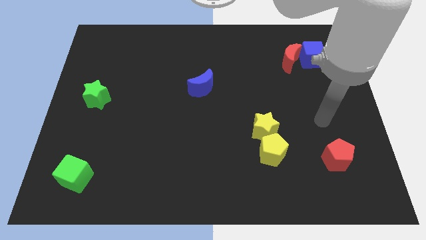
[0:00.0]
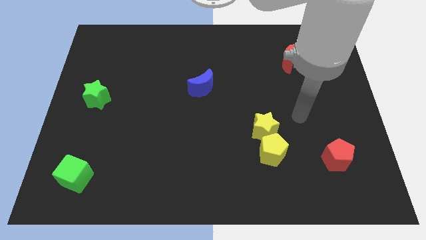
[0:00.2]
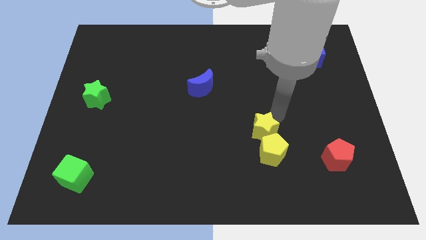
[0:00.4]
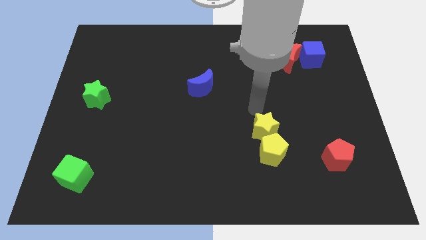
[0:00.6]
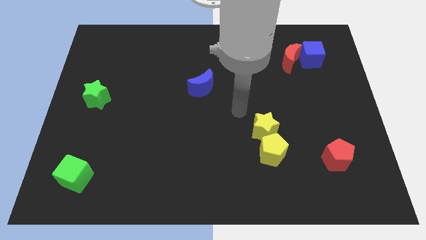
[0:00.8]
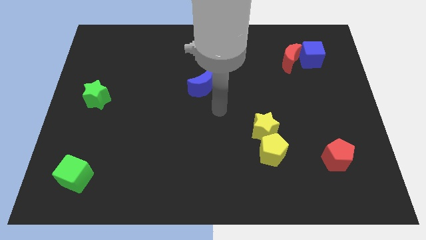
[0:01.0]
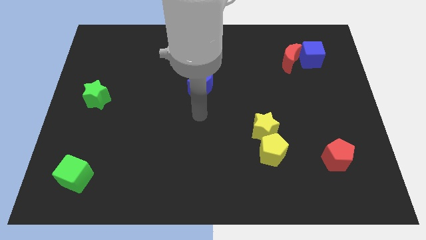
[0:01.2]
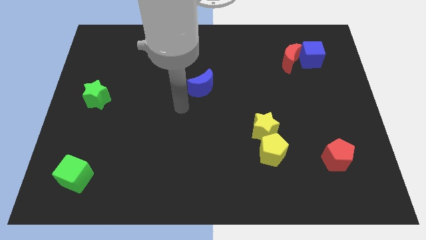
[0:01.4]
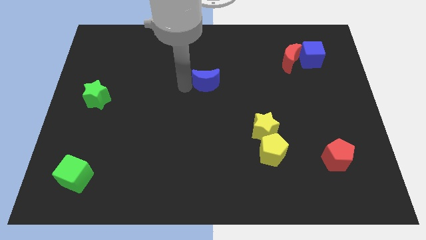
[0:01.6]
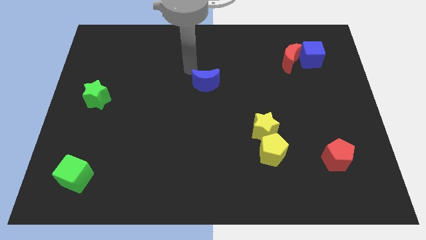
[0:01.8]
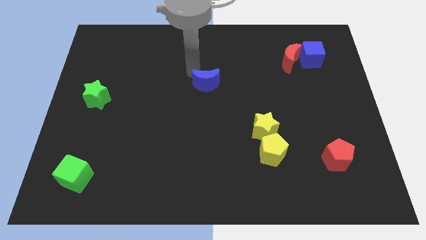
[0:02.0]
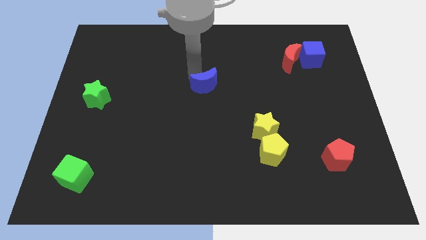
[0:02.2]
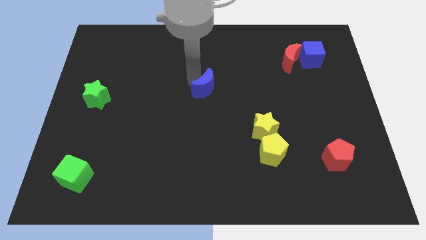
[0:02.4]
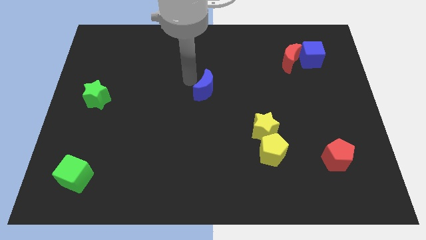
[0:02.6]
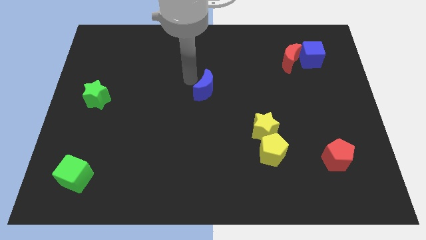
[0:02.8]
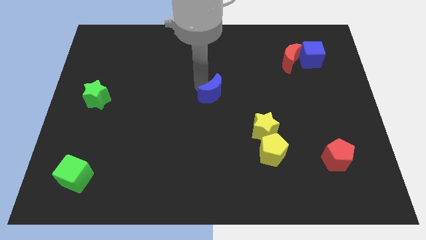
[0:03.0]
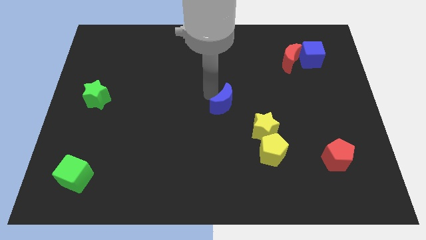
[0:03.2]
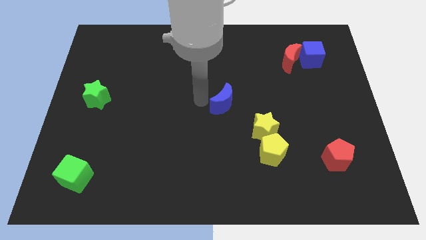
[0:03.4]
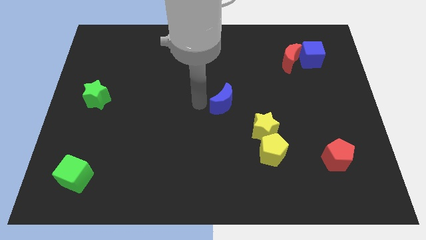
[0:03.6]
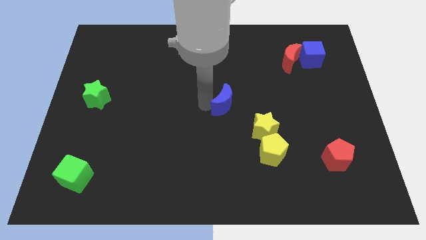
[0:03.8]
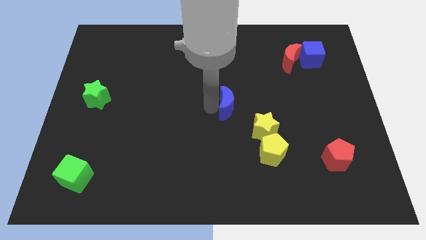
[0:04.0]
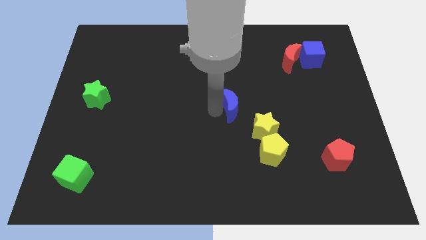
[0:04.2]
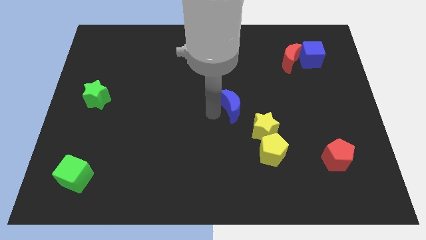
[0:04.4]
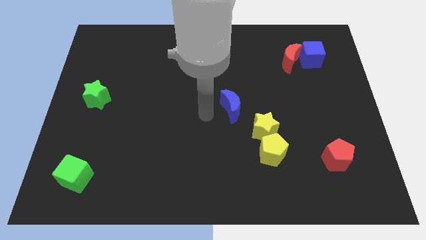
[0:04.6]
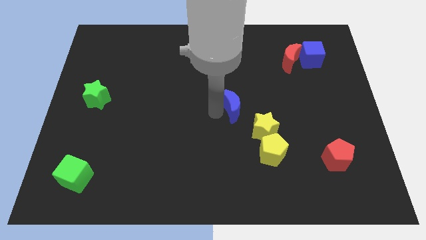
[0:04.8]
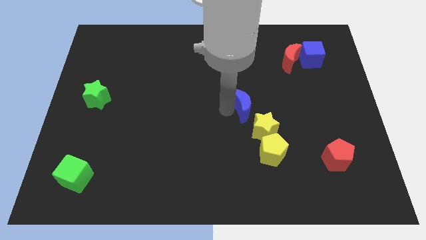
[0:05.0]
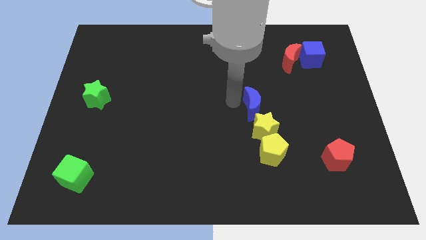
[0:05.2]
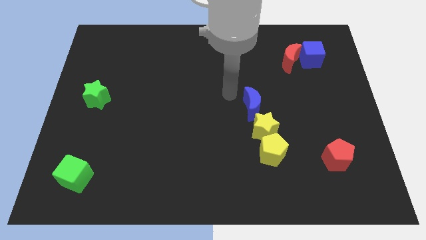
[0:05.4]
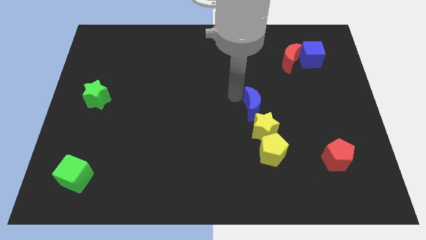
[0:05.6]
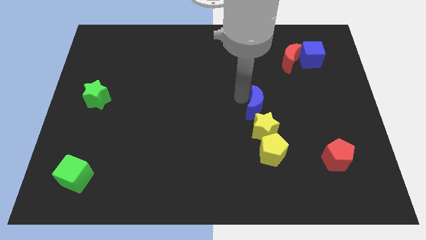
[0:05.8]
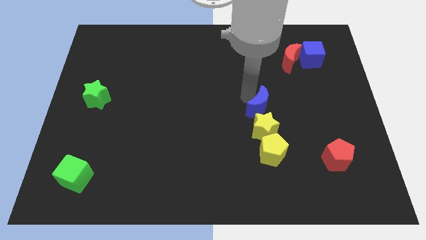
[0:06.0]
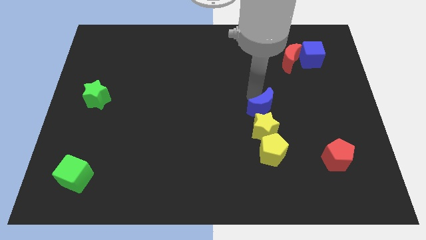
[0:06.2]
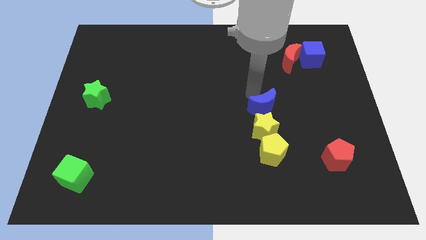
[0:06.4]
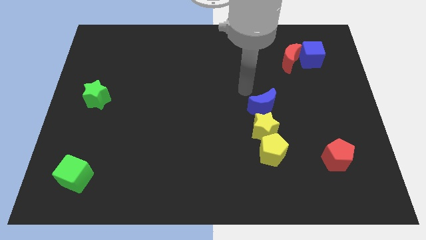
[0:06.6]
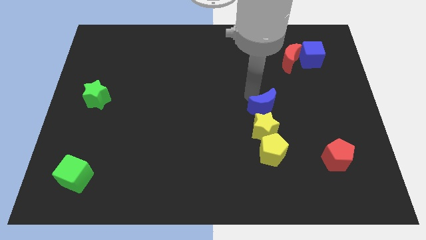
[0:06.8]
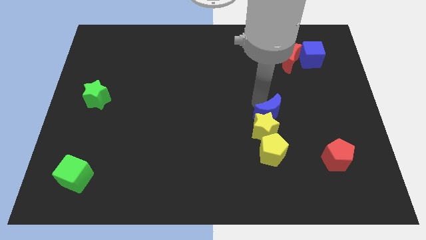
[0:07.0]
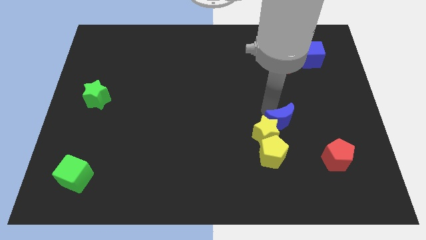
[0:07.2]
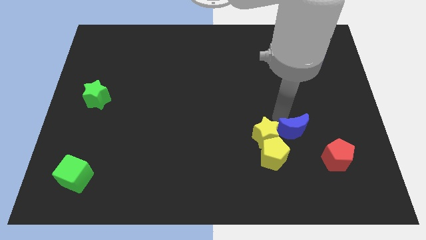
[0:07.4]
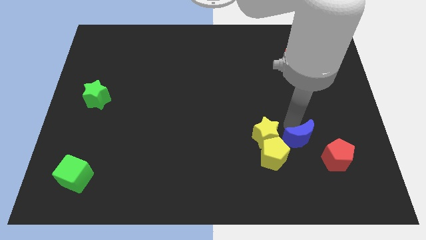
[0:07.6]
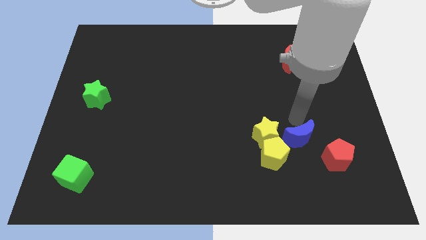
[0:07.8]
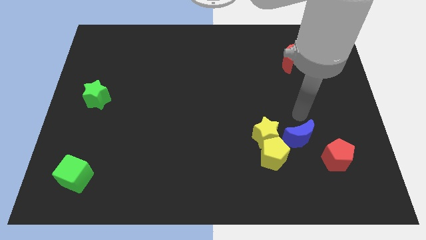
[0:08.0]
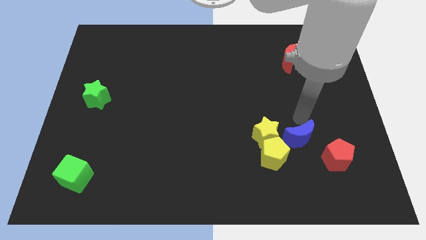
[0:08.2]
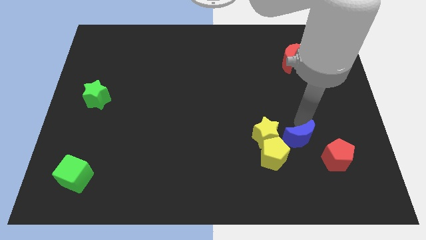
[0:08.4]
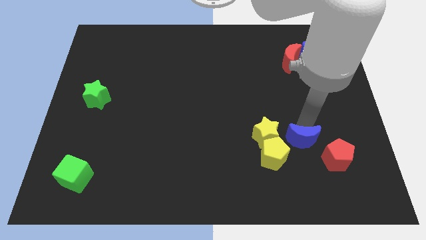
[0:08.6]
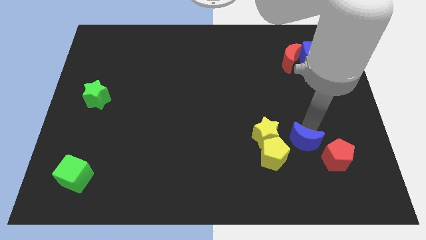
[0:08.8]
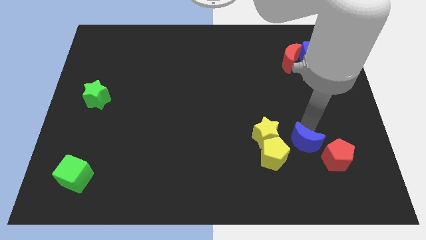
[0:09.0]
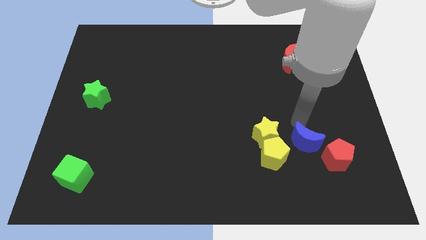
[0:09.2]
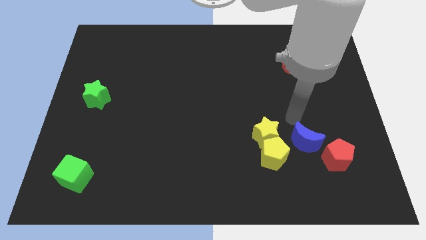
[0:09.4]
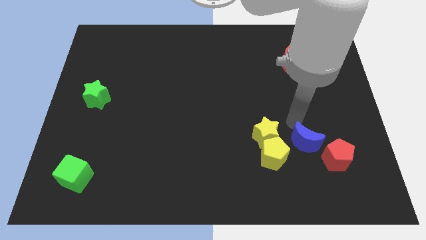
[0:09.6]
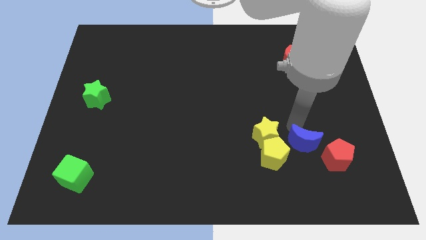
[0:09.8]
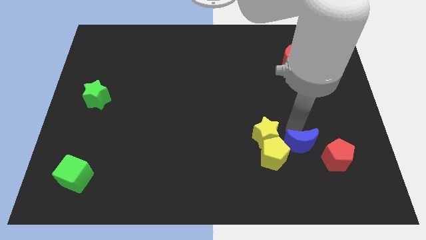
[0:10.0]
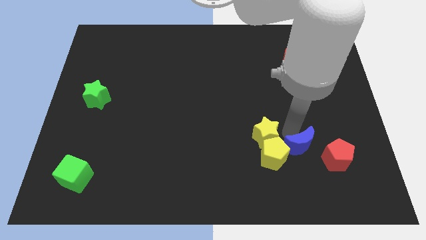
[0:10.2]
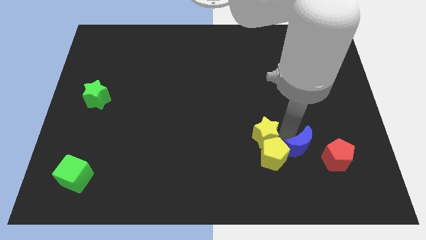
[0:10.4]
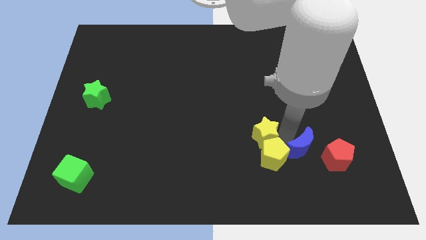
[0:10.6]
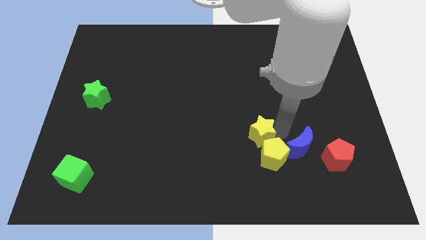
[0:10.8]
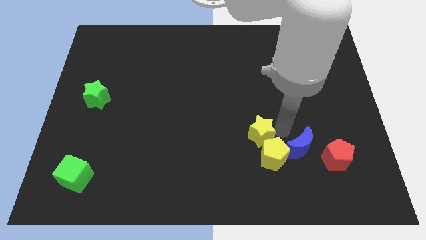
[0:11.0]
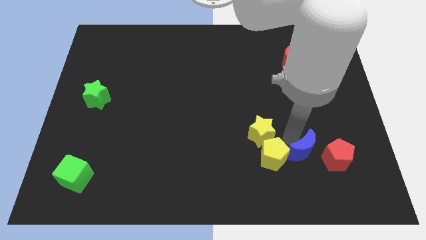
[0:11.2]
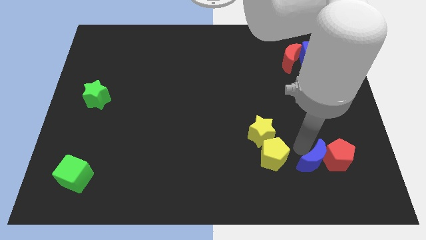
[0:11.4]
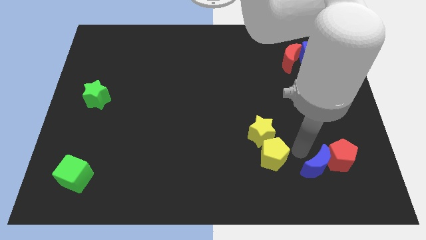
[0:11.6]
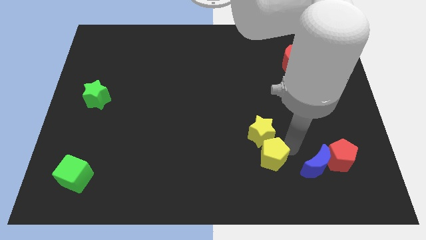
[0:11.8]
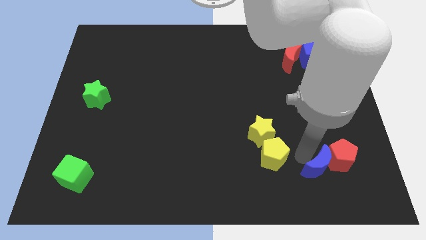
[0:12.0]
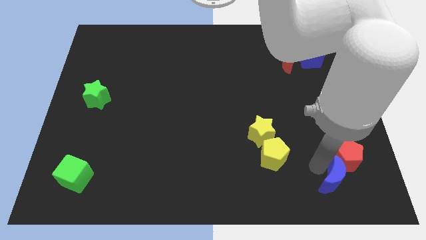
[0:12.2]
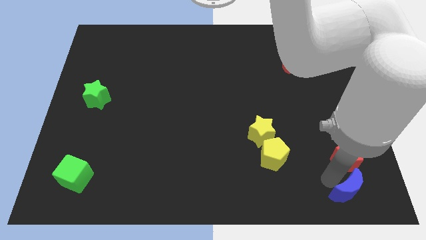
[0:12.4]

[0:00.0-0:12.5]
push the blue moon to the lower right corner

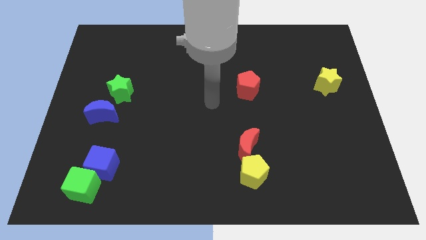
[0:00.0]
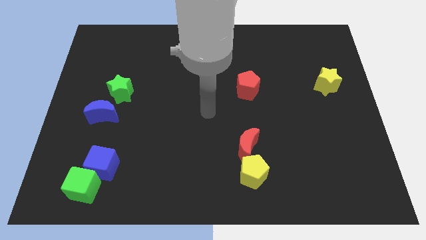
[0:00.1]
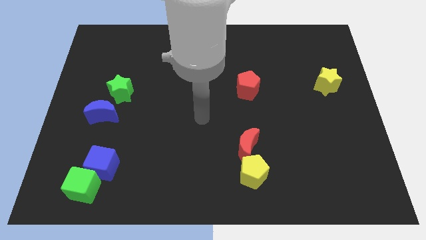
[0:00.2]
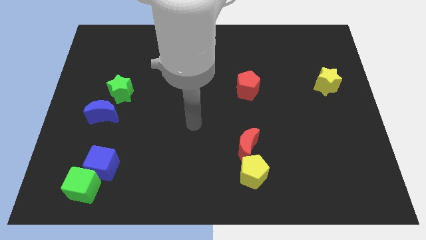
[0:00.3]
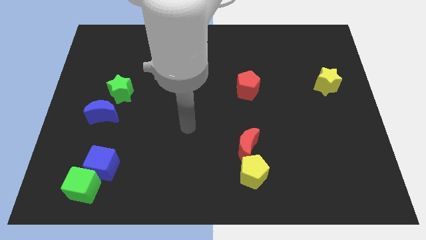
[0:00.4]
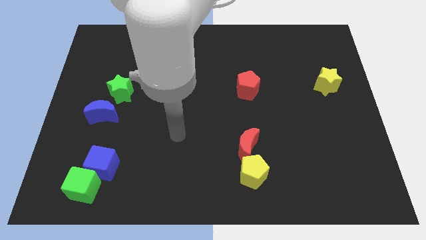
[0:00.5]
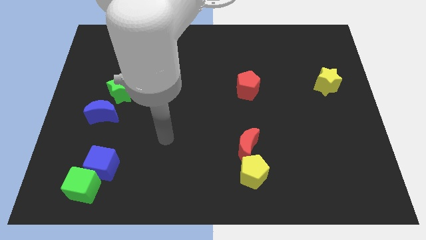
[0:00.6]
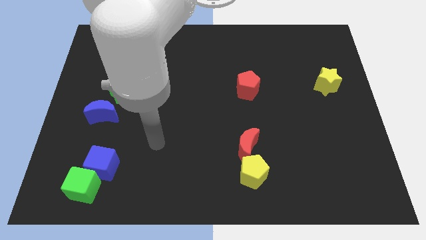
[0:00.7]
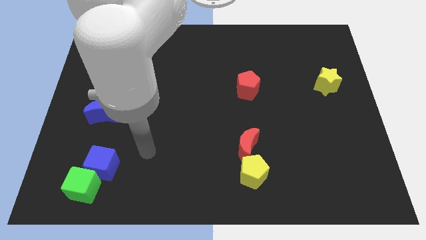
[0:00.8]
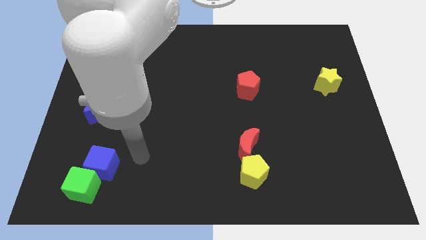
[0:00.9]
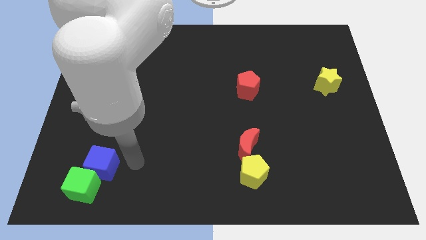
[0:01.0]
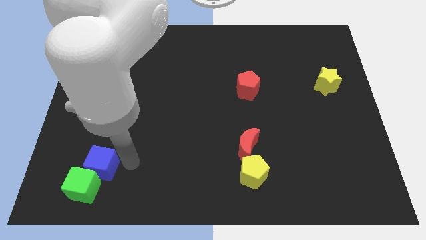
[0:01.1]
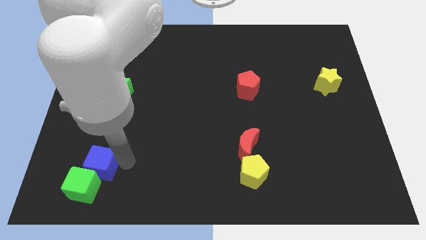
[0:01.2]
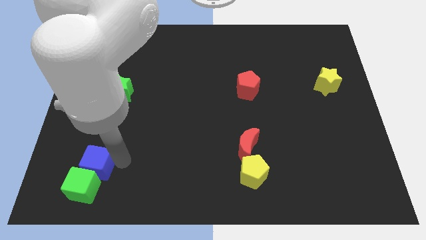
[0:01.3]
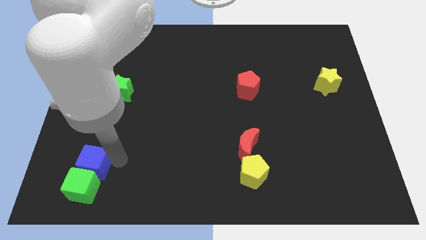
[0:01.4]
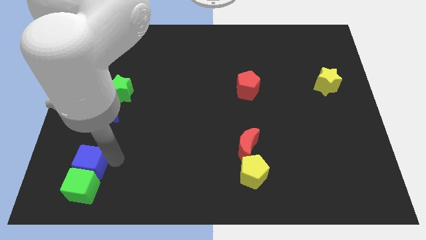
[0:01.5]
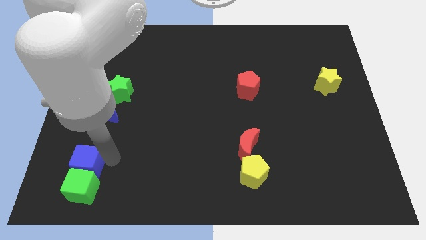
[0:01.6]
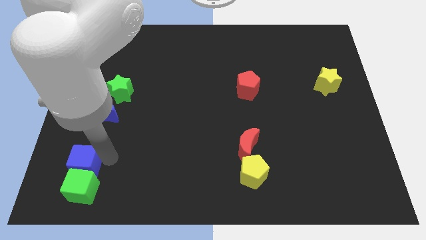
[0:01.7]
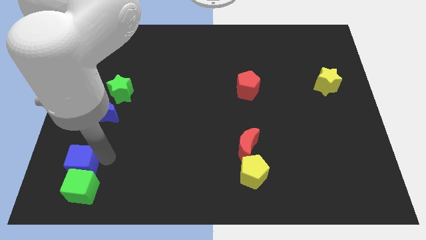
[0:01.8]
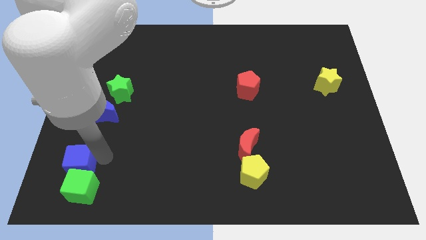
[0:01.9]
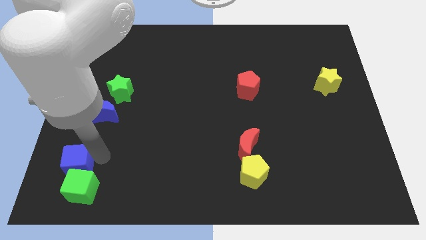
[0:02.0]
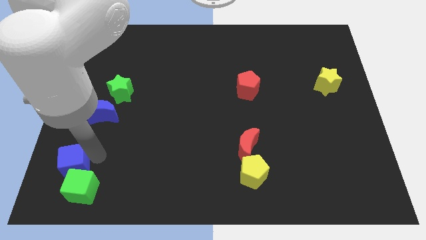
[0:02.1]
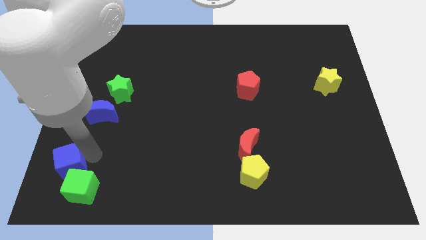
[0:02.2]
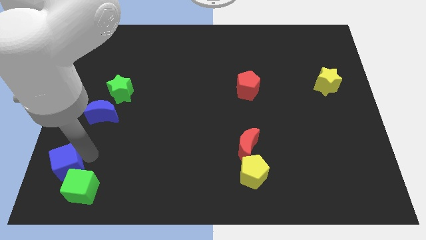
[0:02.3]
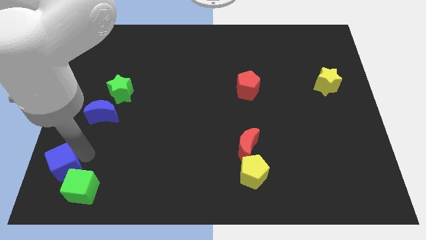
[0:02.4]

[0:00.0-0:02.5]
put the blue cube to the bottom left corner
